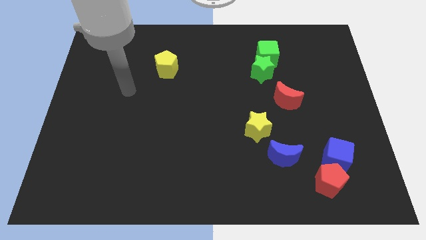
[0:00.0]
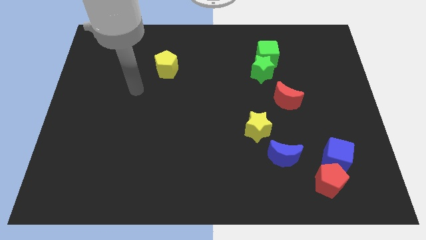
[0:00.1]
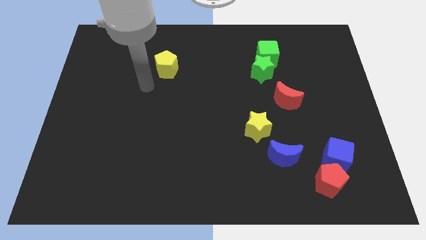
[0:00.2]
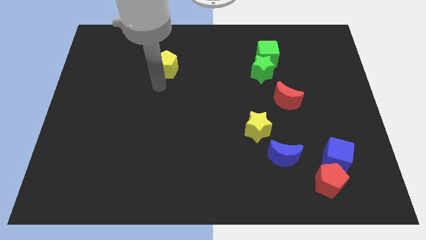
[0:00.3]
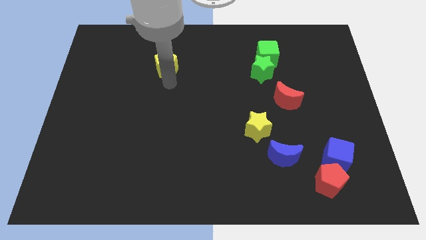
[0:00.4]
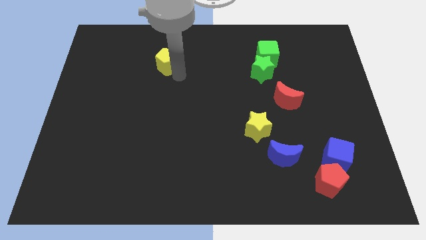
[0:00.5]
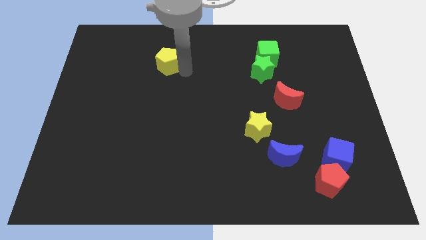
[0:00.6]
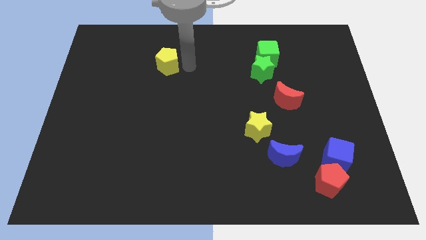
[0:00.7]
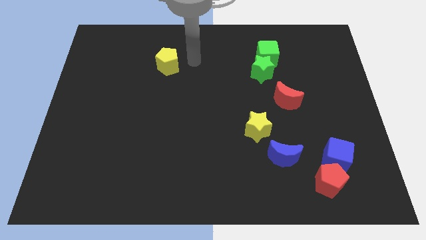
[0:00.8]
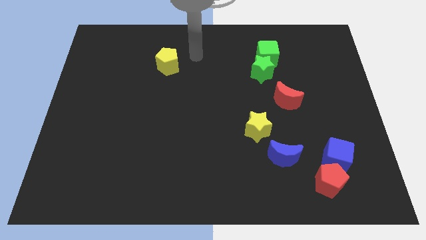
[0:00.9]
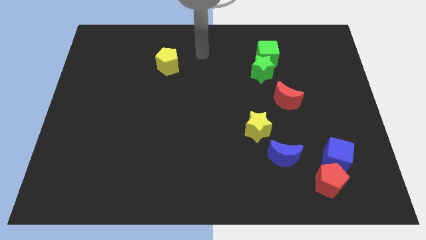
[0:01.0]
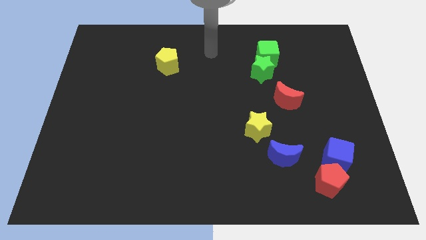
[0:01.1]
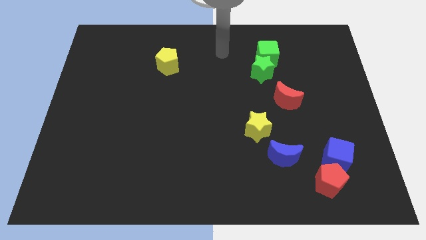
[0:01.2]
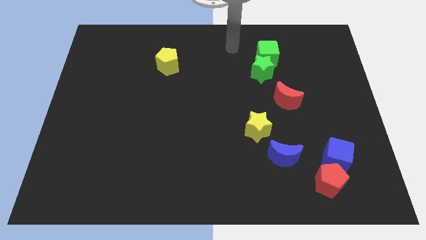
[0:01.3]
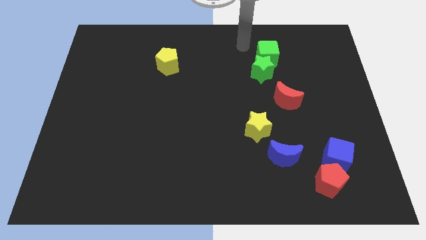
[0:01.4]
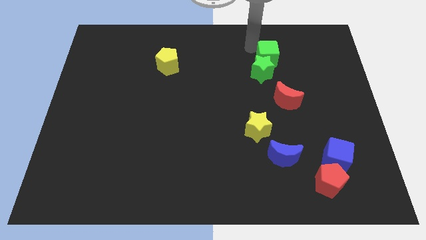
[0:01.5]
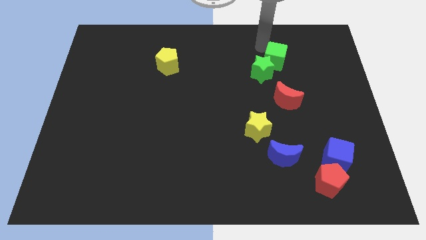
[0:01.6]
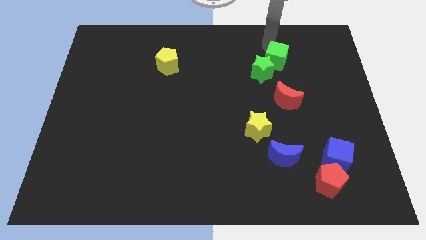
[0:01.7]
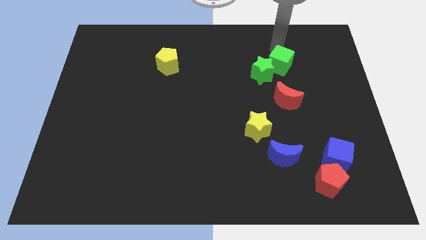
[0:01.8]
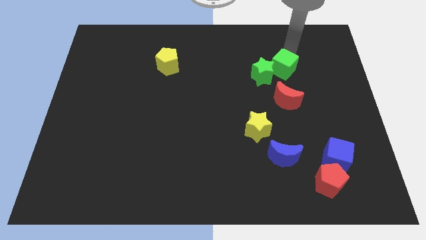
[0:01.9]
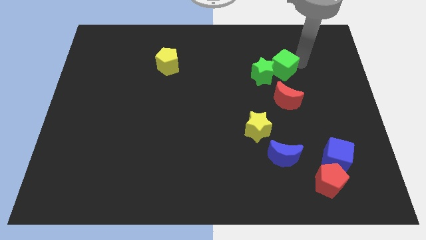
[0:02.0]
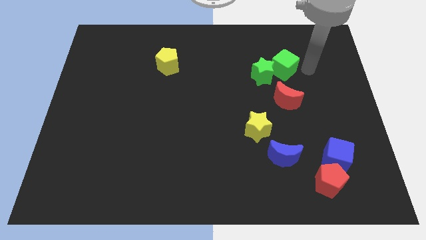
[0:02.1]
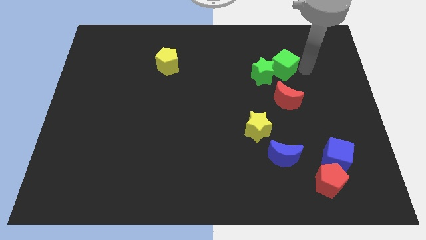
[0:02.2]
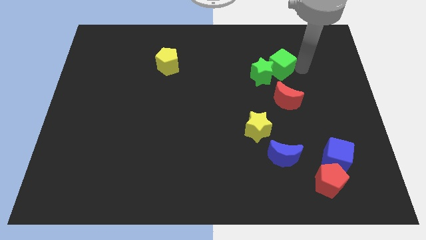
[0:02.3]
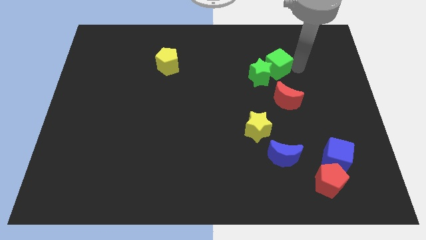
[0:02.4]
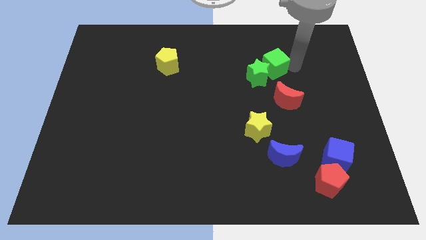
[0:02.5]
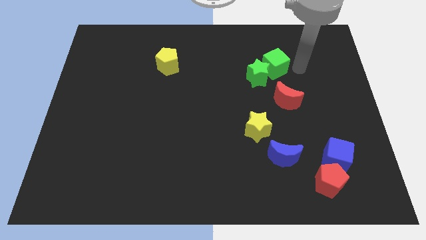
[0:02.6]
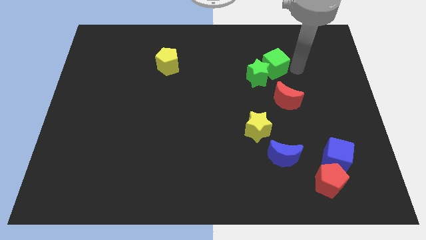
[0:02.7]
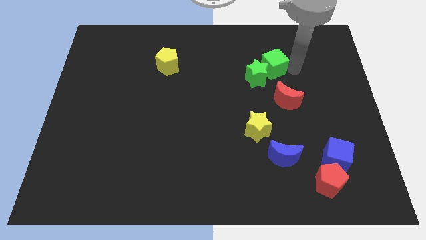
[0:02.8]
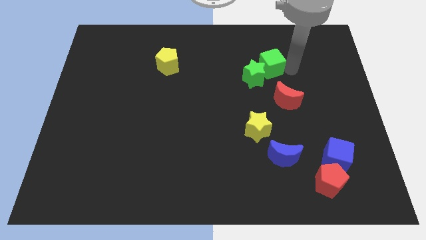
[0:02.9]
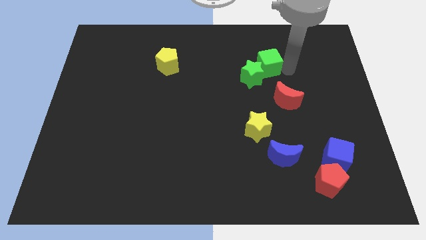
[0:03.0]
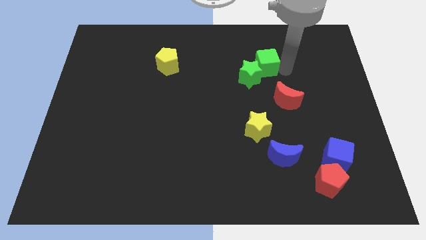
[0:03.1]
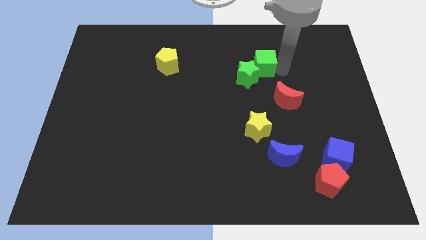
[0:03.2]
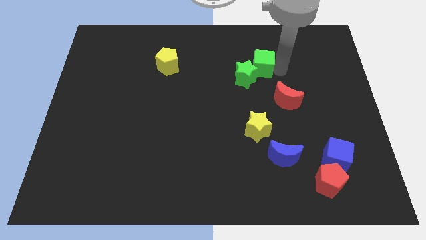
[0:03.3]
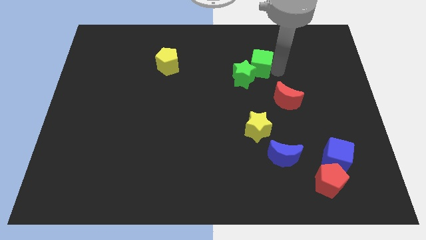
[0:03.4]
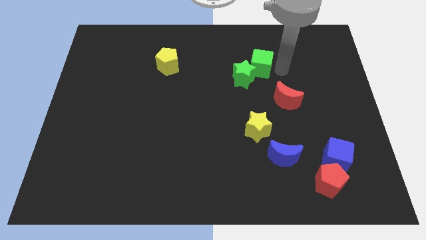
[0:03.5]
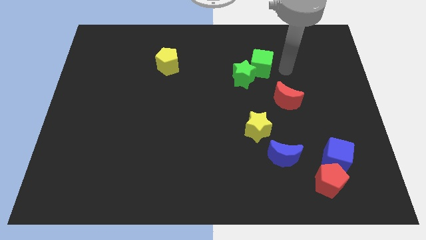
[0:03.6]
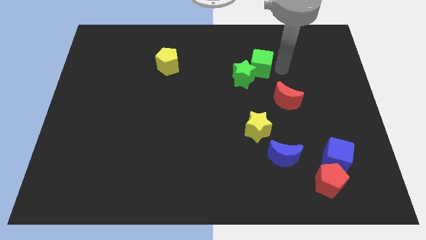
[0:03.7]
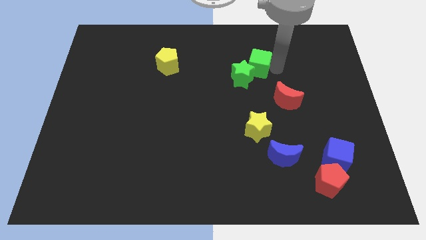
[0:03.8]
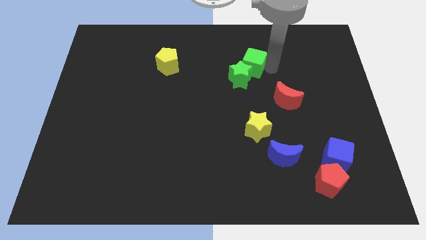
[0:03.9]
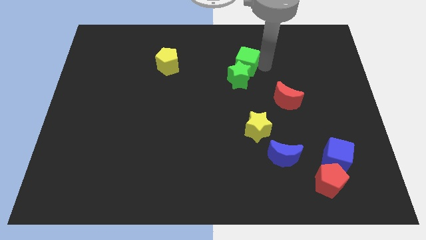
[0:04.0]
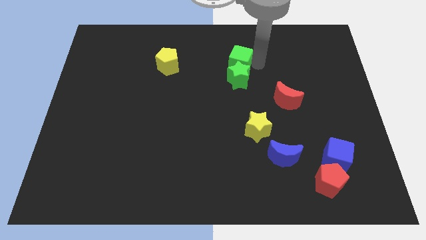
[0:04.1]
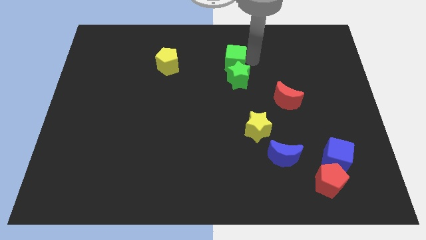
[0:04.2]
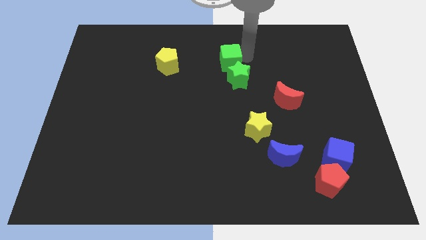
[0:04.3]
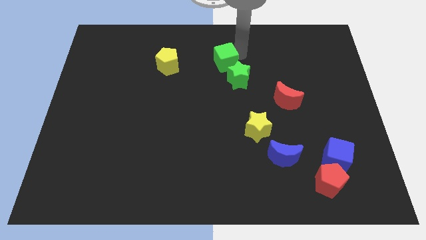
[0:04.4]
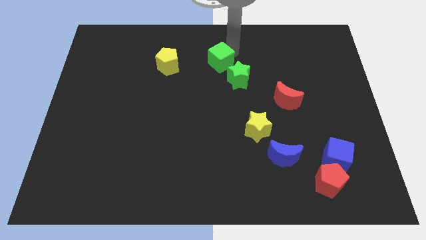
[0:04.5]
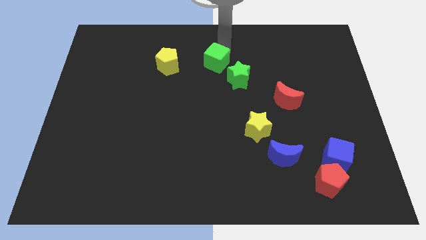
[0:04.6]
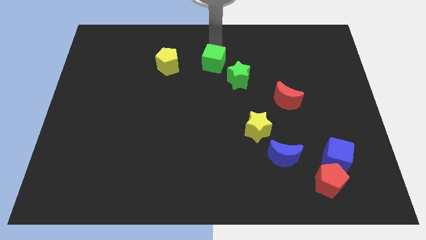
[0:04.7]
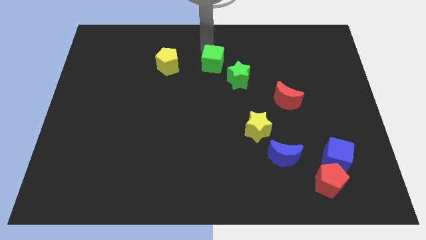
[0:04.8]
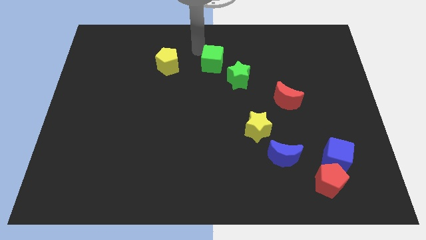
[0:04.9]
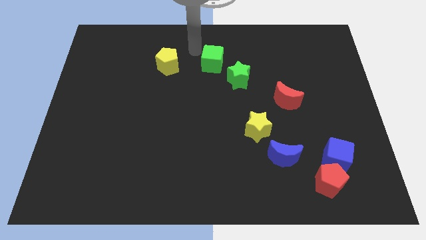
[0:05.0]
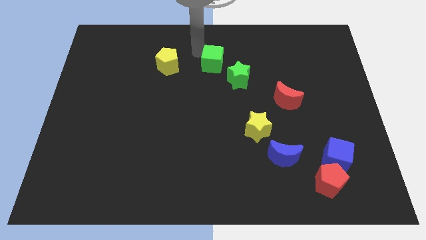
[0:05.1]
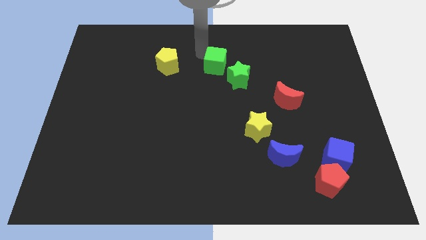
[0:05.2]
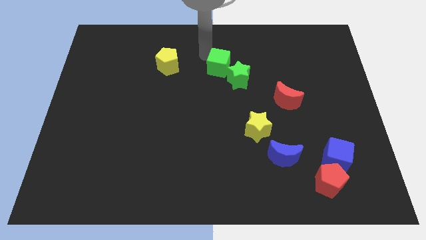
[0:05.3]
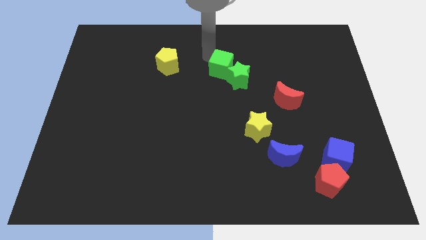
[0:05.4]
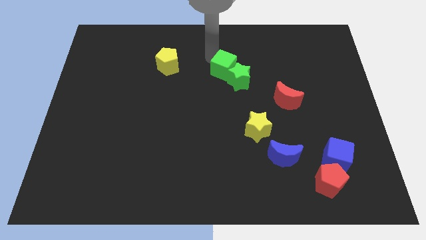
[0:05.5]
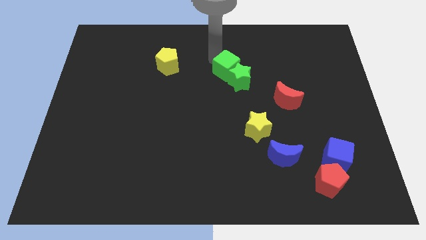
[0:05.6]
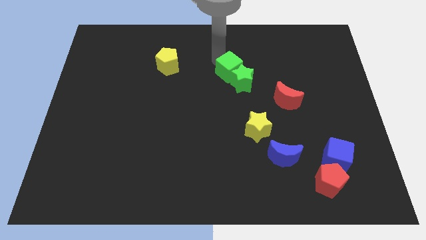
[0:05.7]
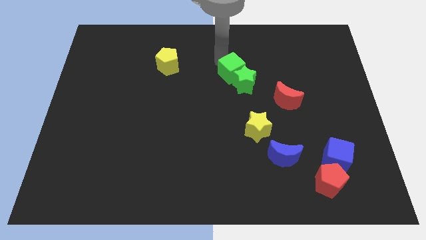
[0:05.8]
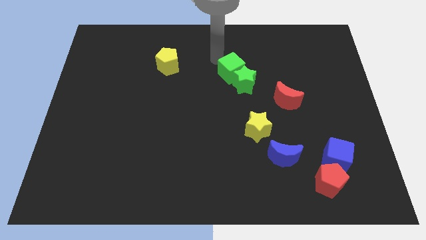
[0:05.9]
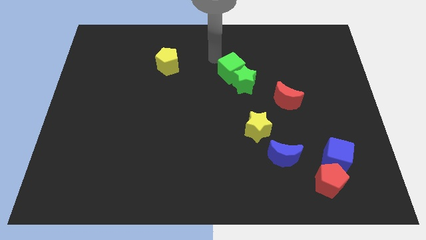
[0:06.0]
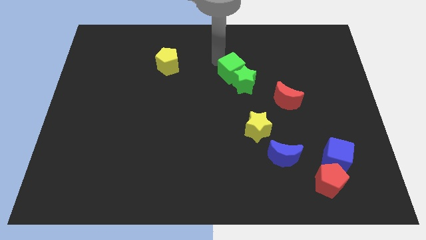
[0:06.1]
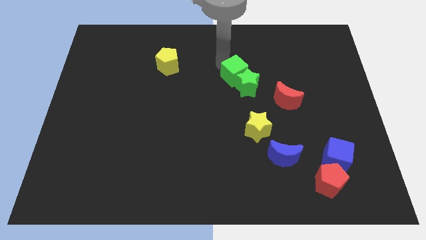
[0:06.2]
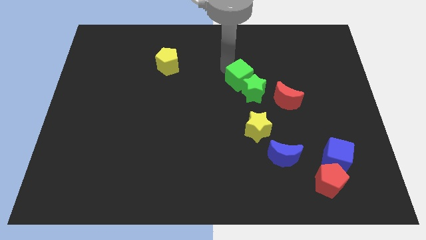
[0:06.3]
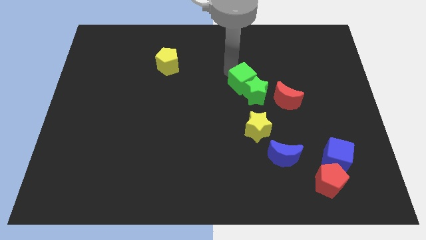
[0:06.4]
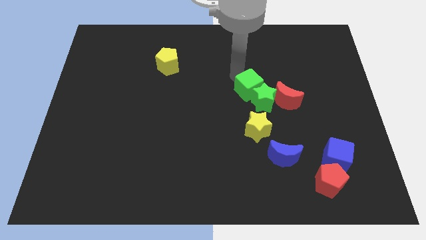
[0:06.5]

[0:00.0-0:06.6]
push the green cube down a little bit

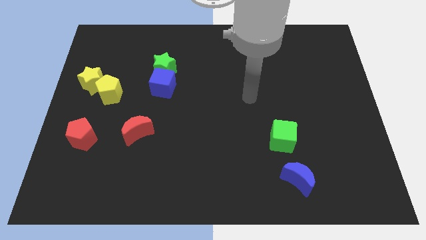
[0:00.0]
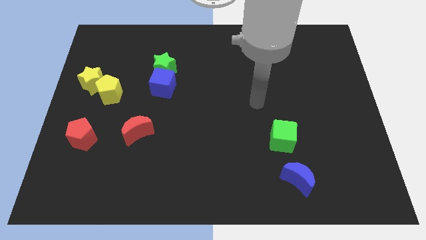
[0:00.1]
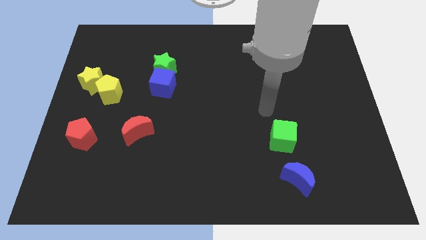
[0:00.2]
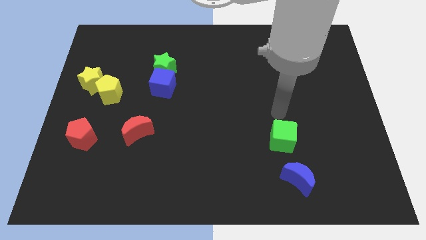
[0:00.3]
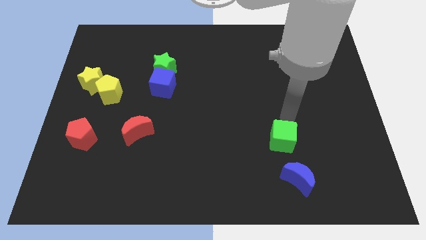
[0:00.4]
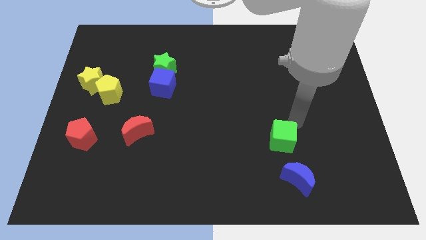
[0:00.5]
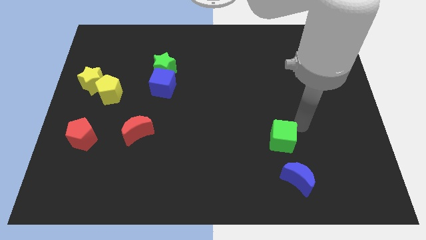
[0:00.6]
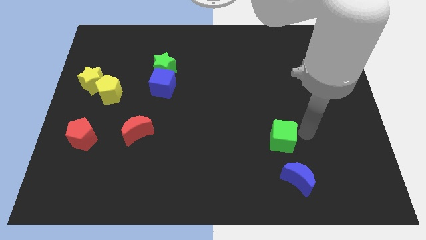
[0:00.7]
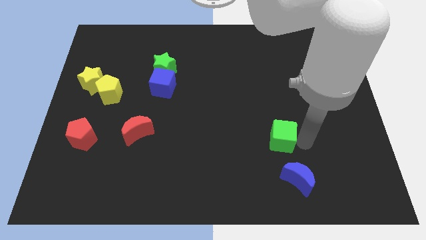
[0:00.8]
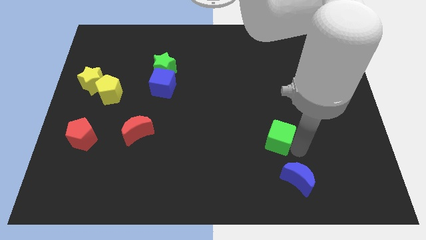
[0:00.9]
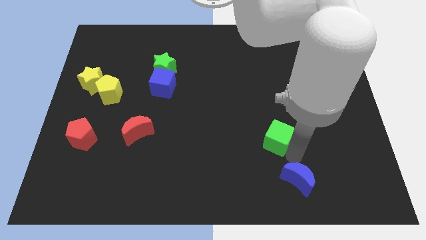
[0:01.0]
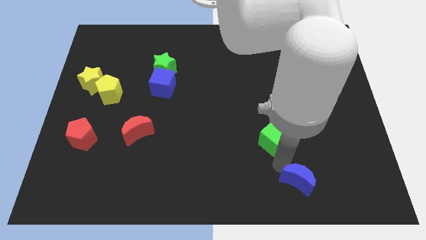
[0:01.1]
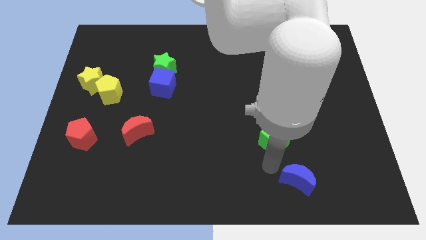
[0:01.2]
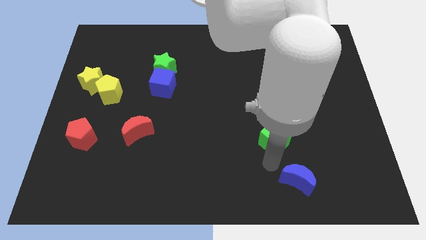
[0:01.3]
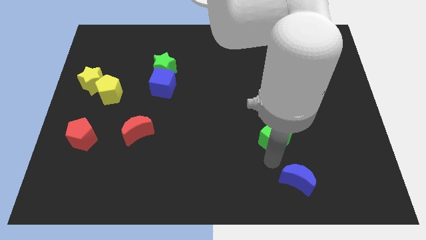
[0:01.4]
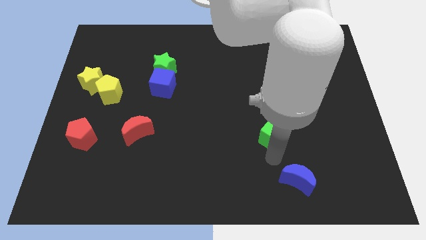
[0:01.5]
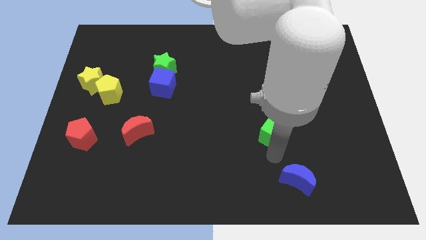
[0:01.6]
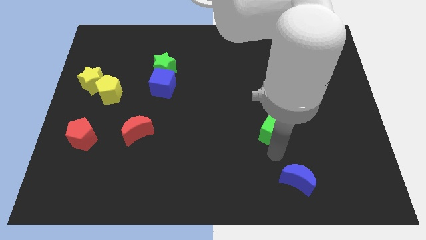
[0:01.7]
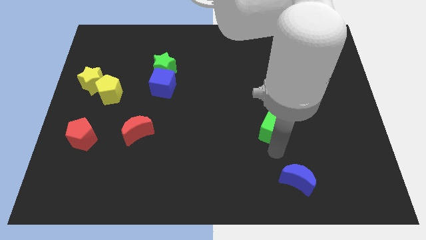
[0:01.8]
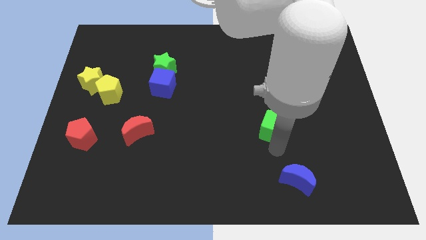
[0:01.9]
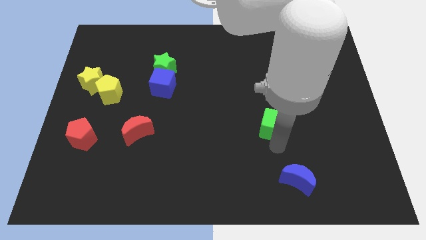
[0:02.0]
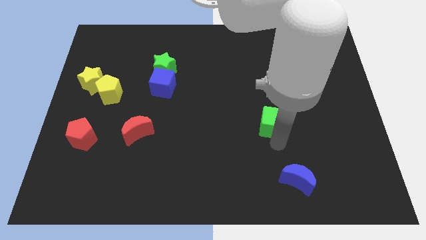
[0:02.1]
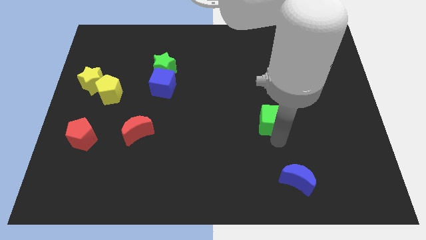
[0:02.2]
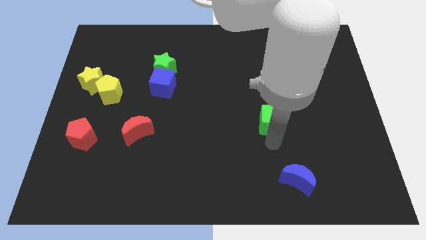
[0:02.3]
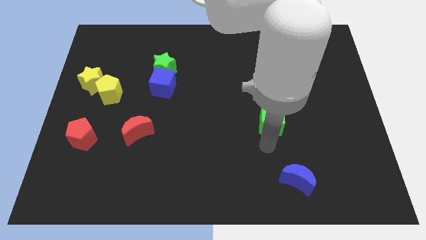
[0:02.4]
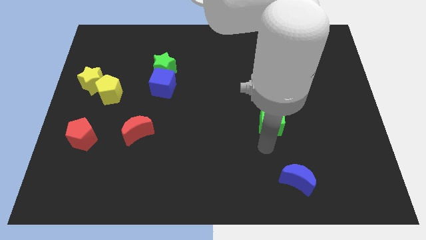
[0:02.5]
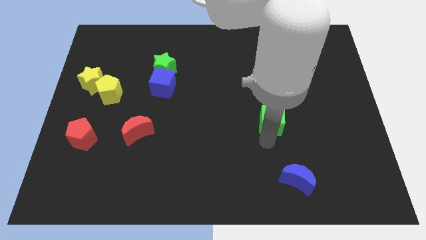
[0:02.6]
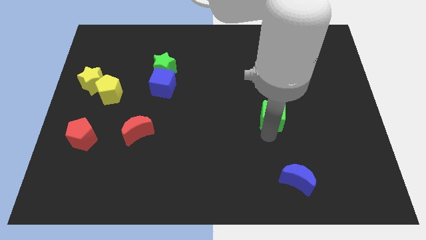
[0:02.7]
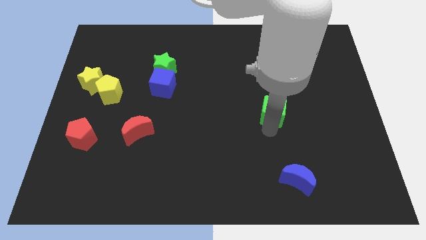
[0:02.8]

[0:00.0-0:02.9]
move the green cube a bit up
